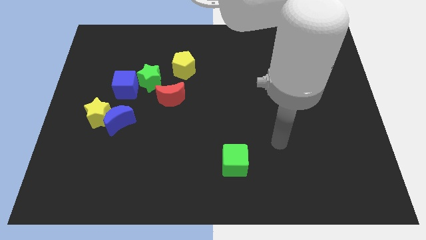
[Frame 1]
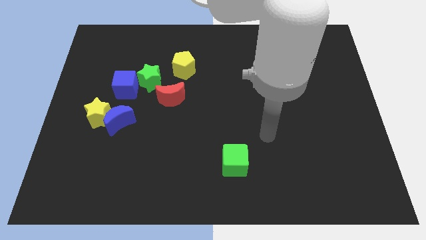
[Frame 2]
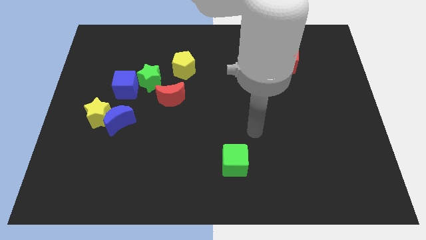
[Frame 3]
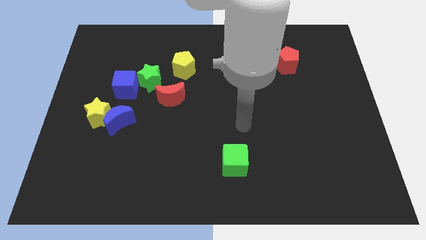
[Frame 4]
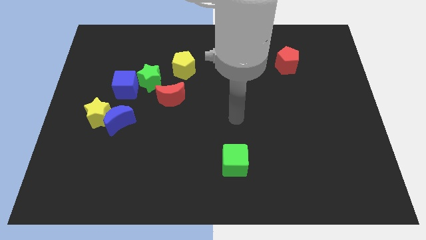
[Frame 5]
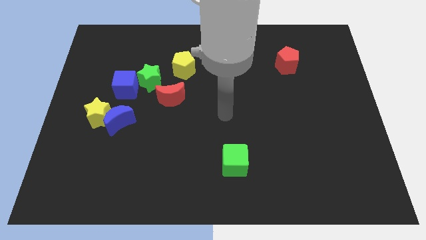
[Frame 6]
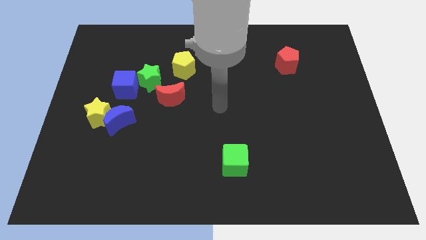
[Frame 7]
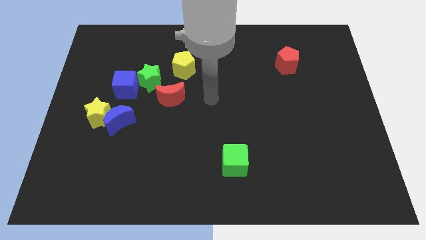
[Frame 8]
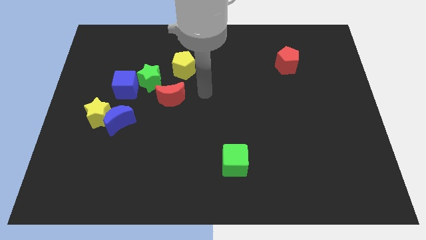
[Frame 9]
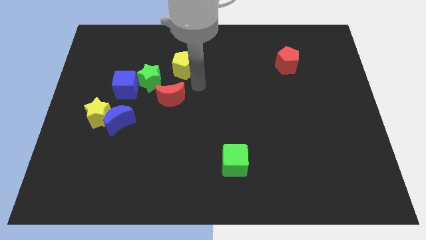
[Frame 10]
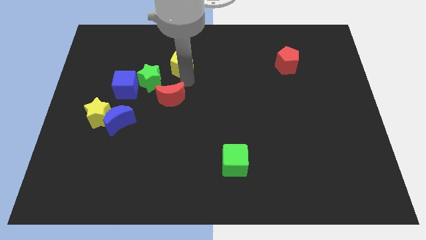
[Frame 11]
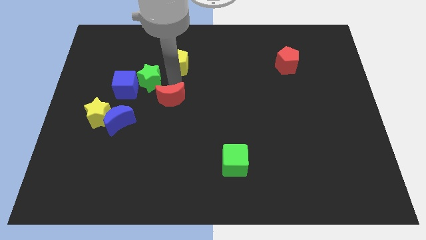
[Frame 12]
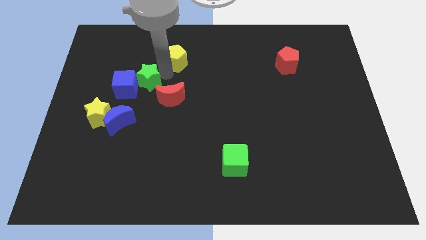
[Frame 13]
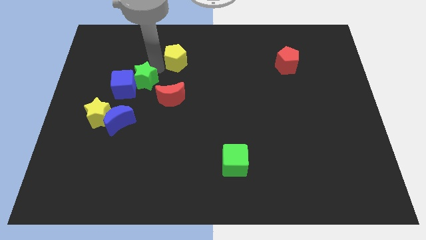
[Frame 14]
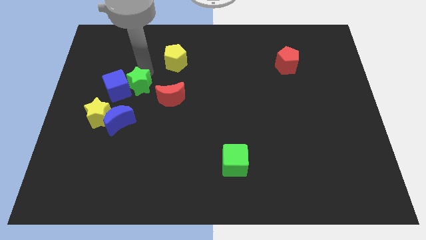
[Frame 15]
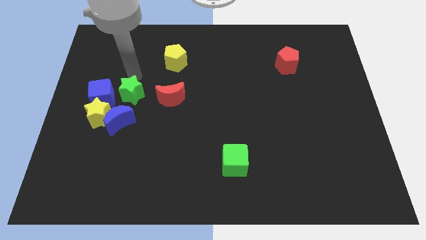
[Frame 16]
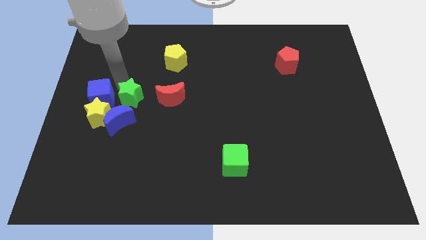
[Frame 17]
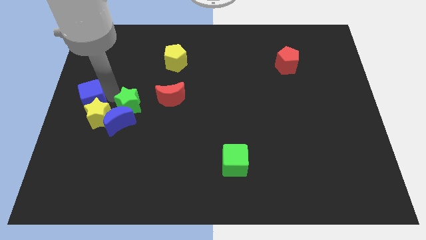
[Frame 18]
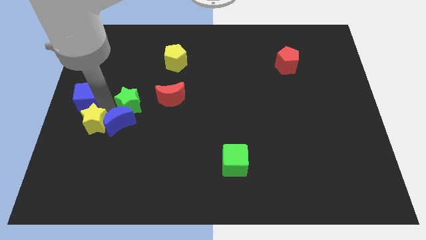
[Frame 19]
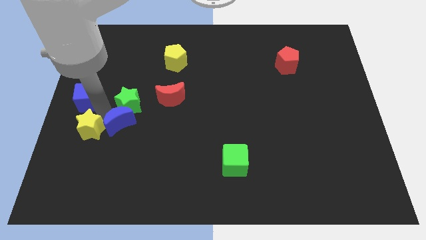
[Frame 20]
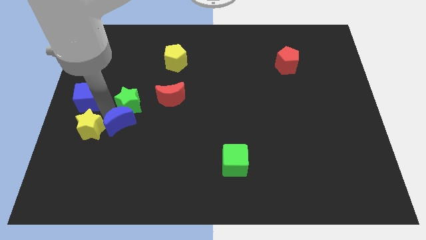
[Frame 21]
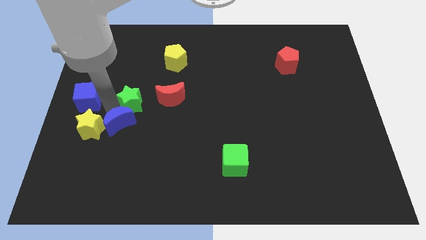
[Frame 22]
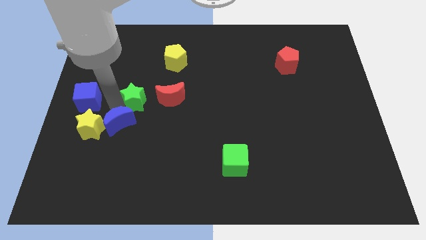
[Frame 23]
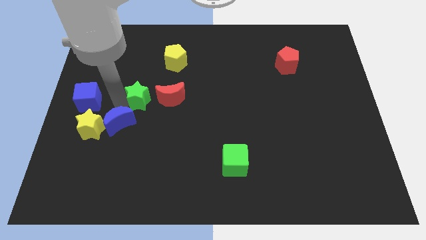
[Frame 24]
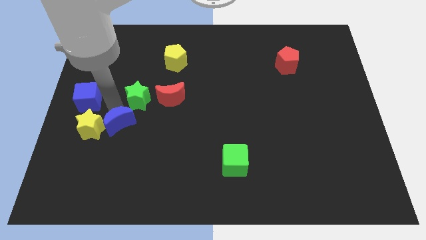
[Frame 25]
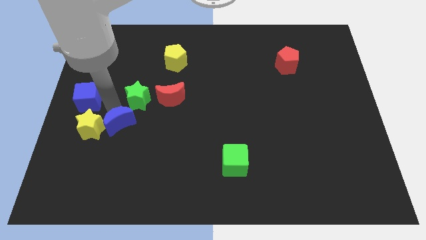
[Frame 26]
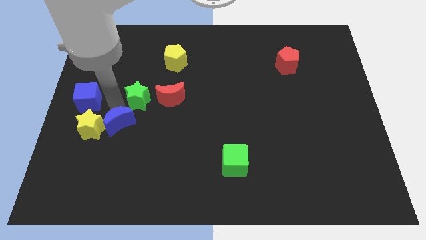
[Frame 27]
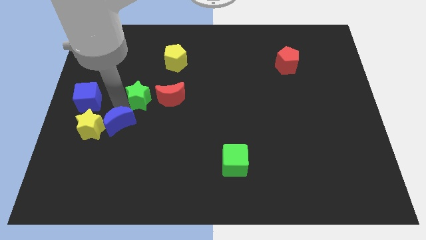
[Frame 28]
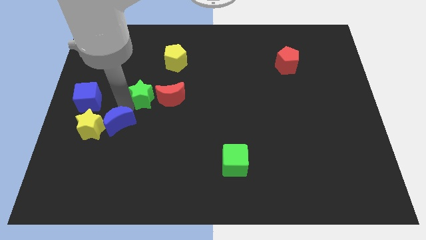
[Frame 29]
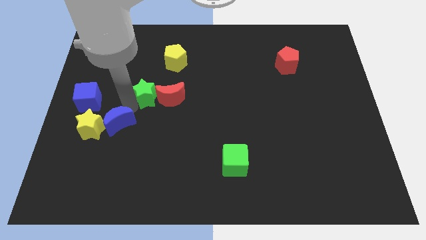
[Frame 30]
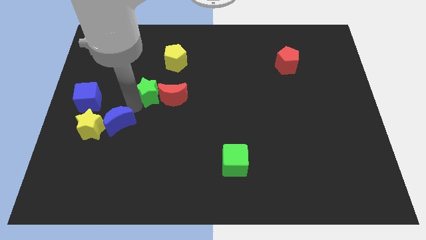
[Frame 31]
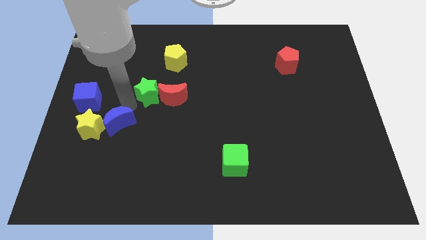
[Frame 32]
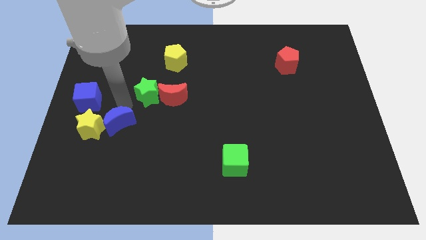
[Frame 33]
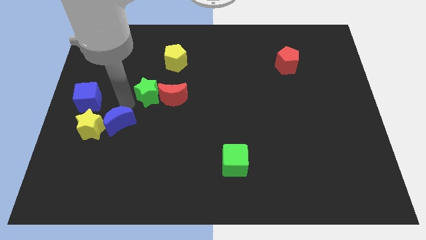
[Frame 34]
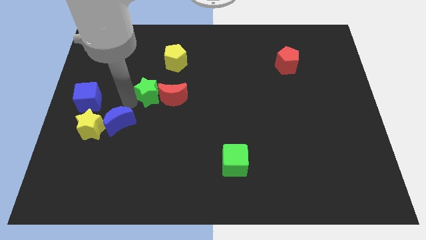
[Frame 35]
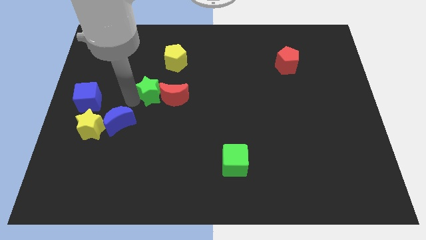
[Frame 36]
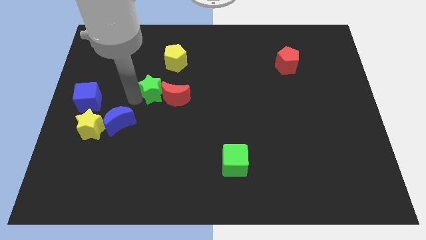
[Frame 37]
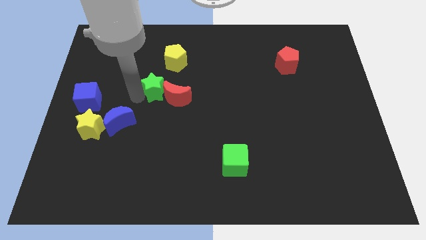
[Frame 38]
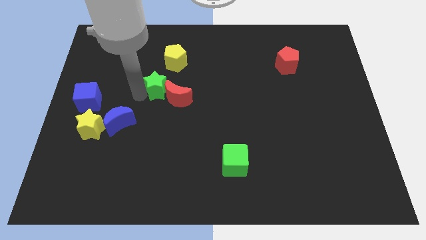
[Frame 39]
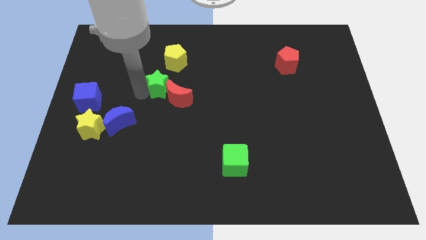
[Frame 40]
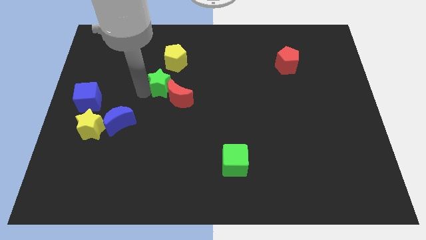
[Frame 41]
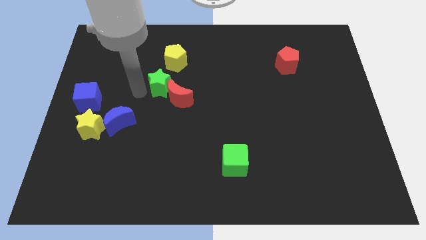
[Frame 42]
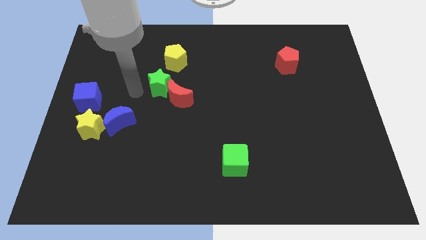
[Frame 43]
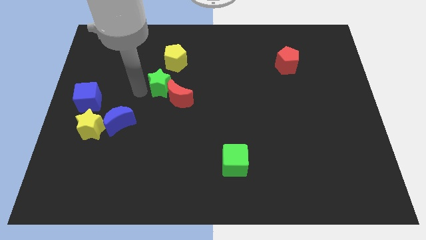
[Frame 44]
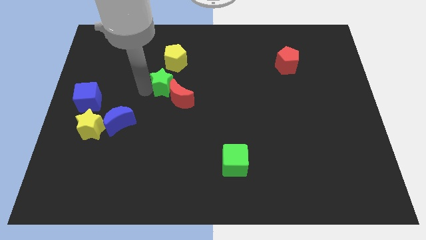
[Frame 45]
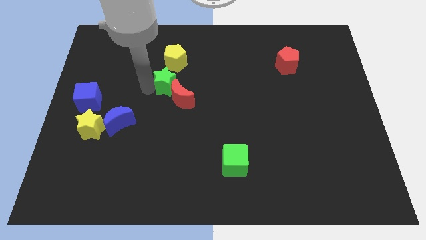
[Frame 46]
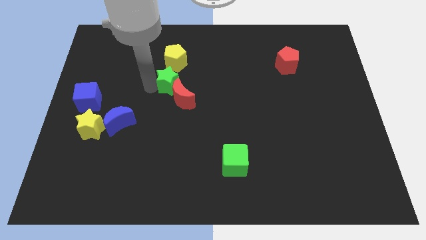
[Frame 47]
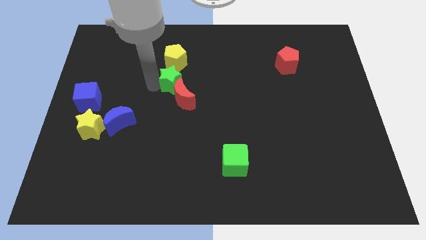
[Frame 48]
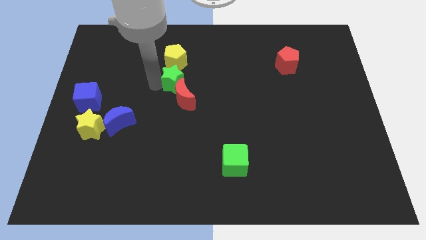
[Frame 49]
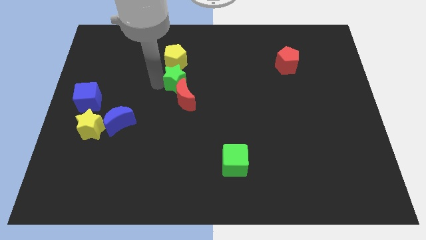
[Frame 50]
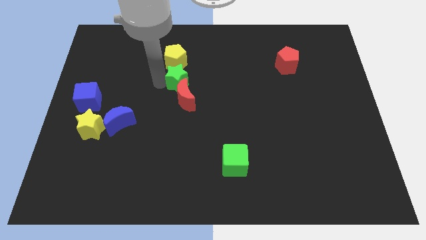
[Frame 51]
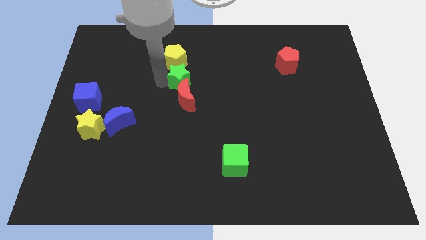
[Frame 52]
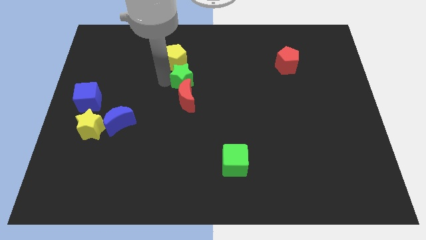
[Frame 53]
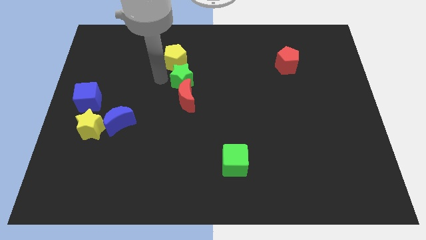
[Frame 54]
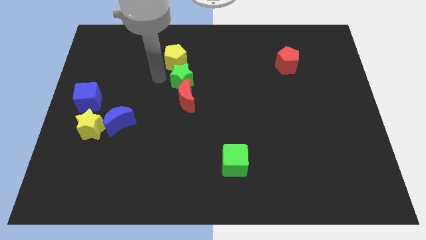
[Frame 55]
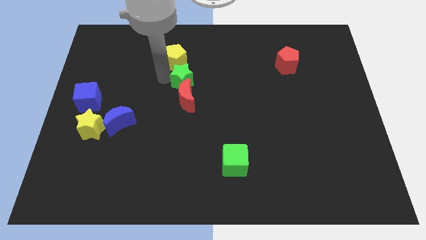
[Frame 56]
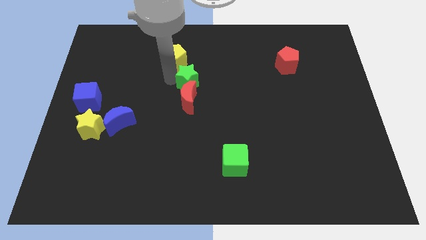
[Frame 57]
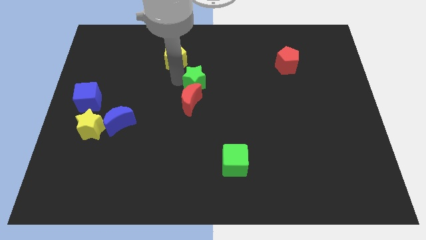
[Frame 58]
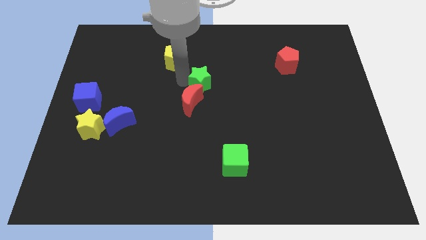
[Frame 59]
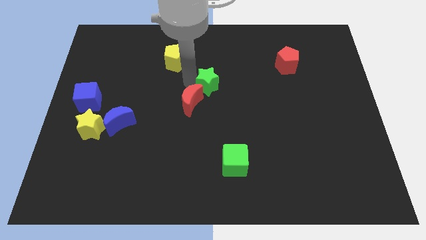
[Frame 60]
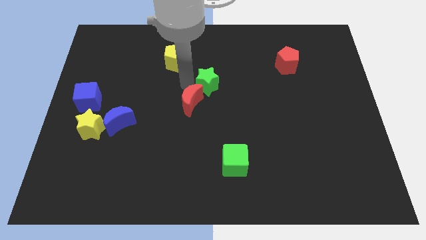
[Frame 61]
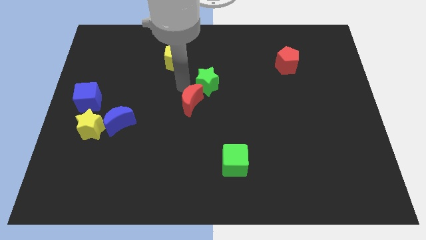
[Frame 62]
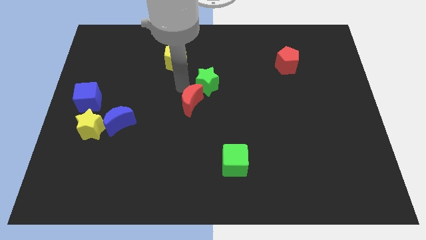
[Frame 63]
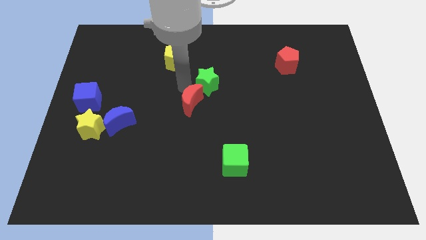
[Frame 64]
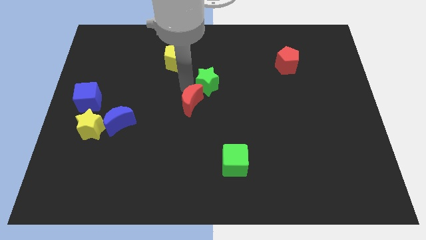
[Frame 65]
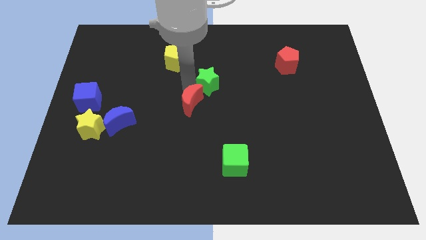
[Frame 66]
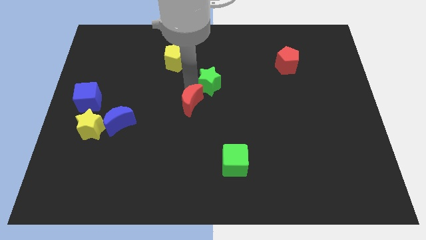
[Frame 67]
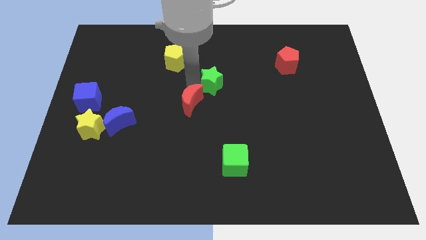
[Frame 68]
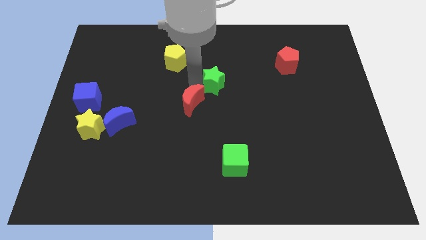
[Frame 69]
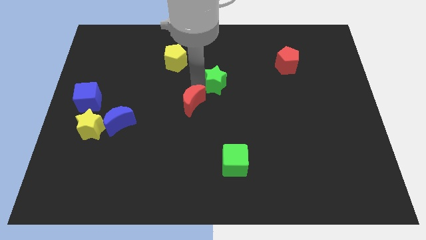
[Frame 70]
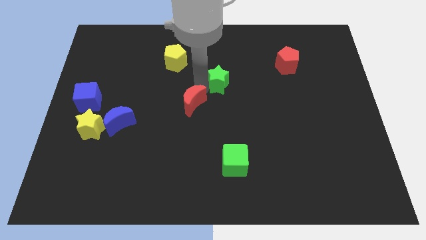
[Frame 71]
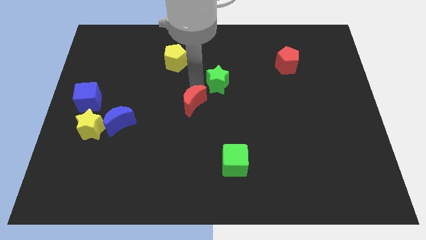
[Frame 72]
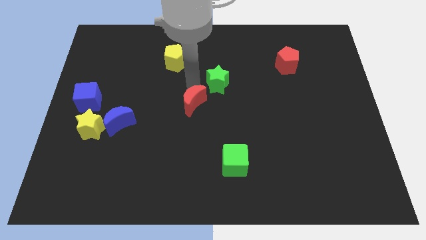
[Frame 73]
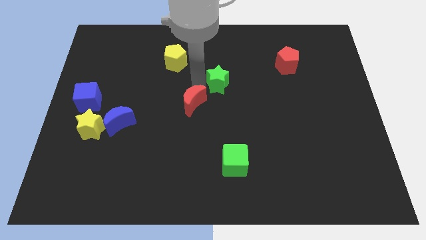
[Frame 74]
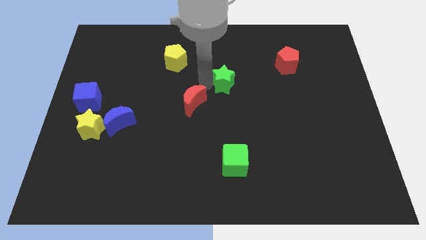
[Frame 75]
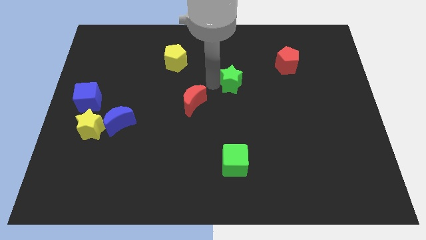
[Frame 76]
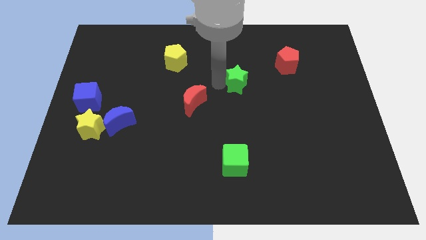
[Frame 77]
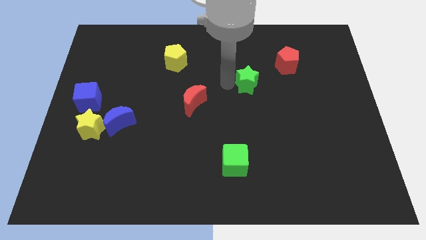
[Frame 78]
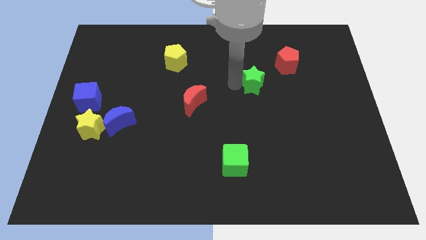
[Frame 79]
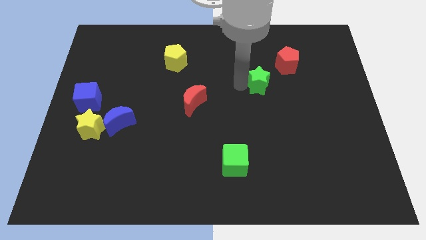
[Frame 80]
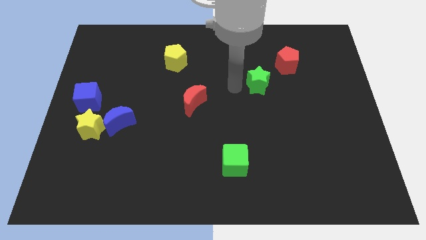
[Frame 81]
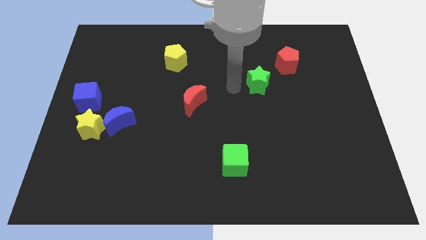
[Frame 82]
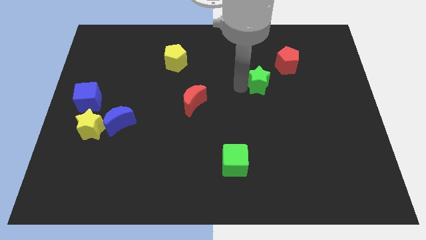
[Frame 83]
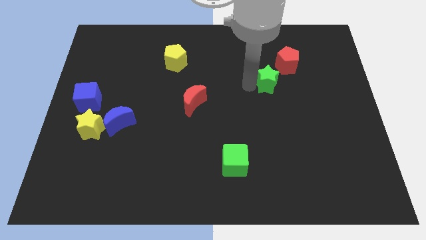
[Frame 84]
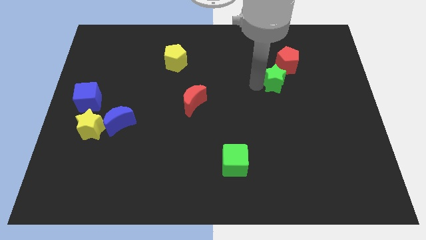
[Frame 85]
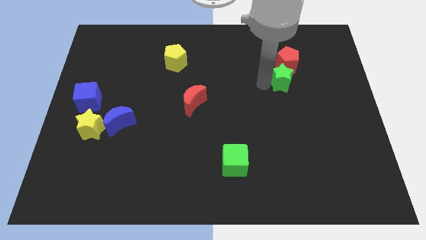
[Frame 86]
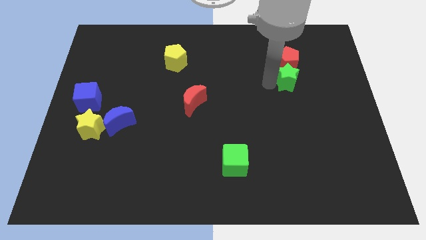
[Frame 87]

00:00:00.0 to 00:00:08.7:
push the green star diagonally down and to the right of the red pentagon
